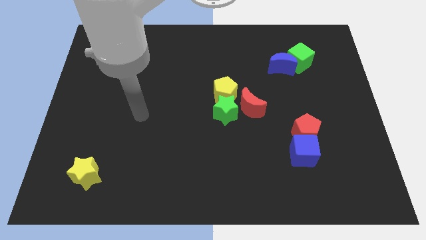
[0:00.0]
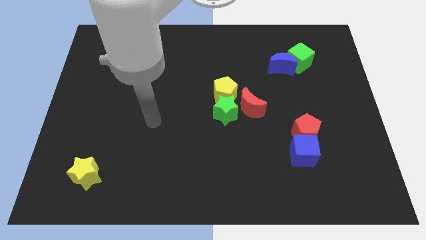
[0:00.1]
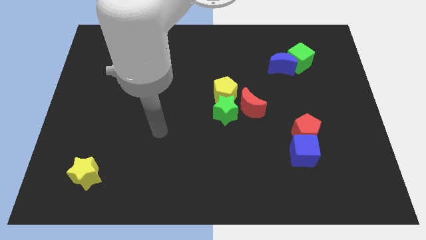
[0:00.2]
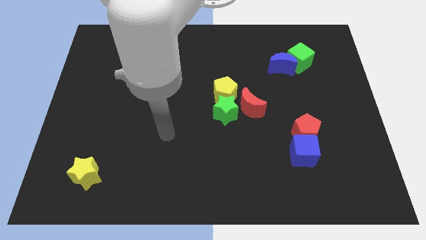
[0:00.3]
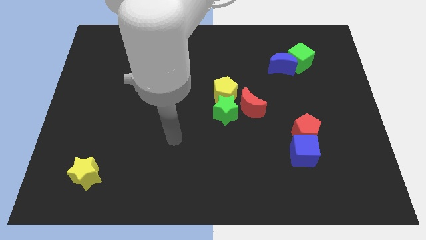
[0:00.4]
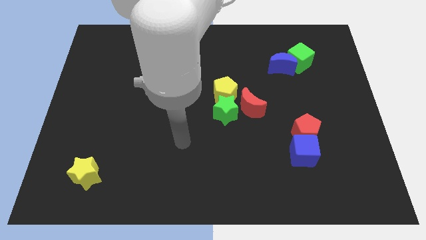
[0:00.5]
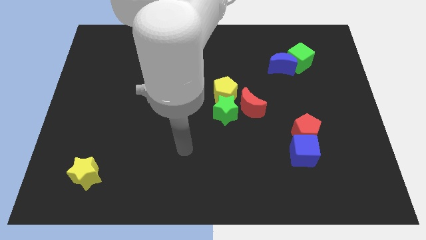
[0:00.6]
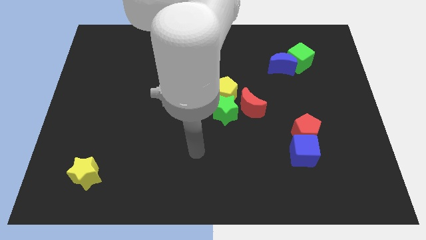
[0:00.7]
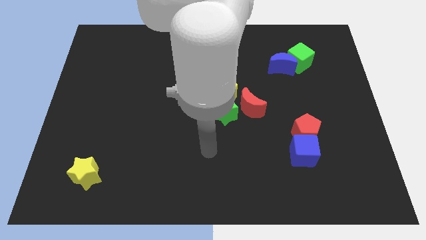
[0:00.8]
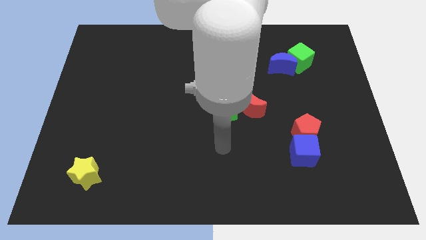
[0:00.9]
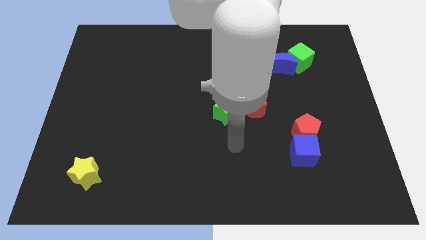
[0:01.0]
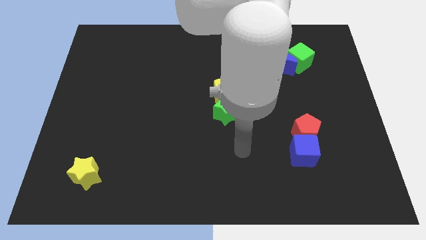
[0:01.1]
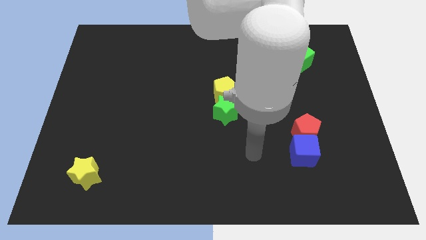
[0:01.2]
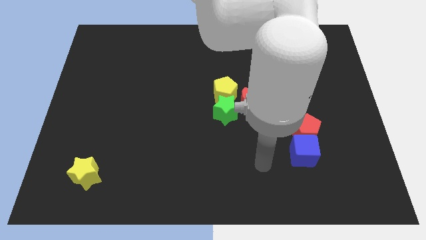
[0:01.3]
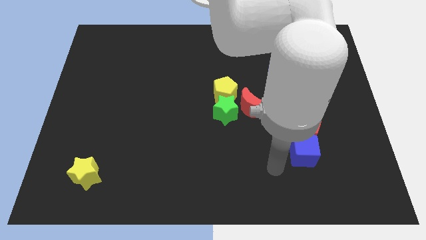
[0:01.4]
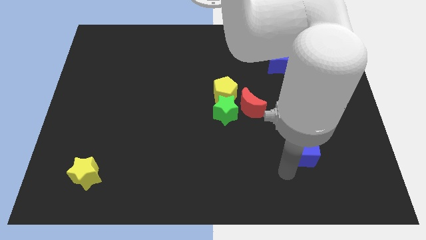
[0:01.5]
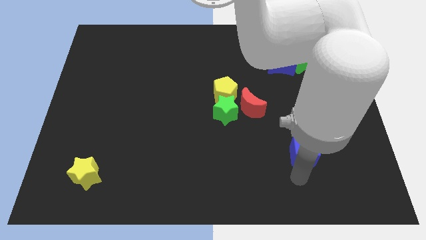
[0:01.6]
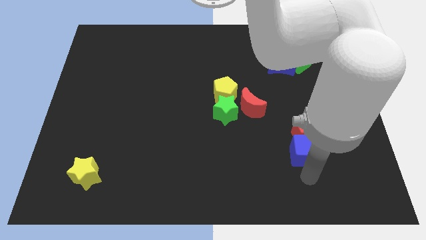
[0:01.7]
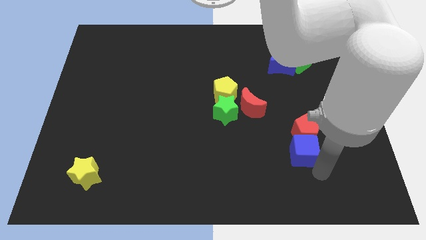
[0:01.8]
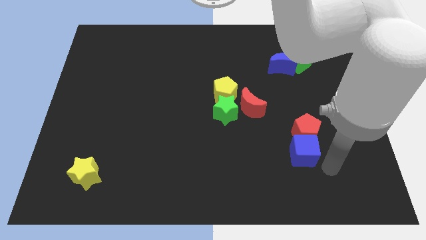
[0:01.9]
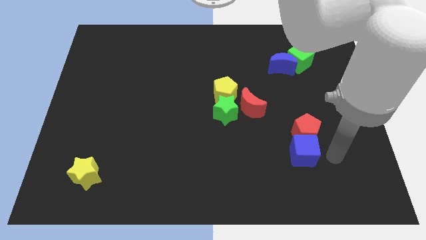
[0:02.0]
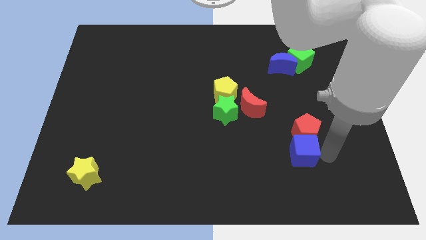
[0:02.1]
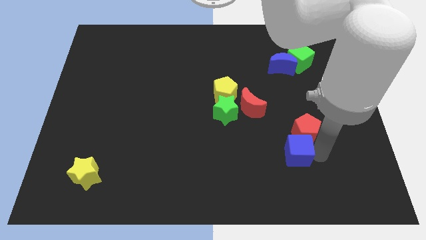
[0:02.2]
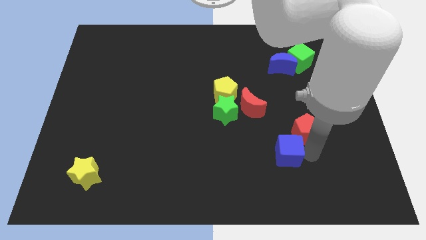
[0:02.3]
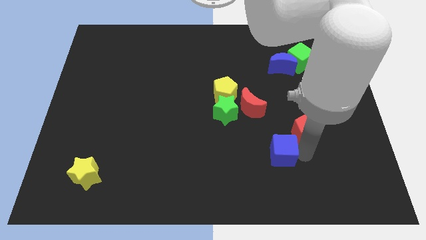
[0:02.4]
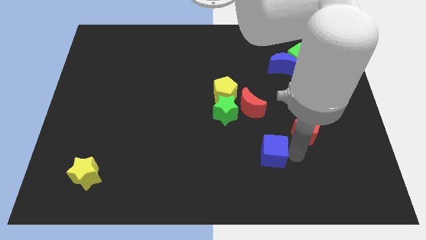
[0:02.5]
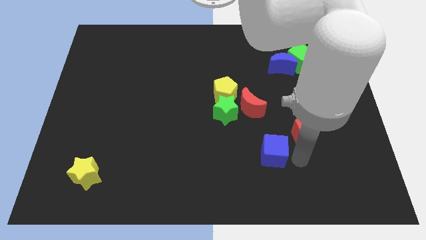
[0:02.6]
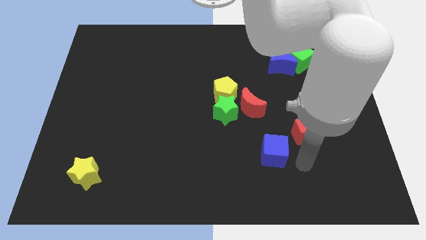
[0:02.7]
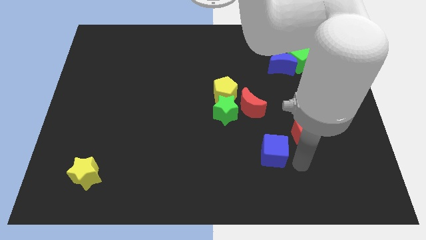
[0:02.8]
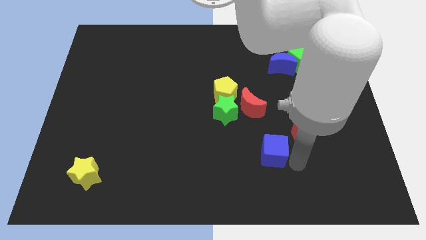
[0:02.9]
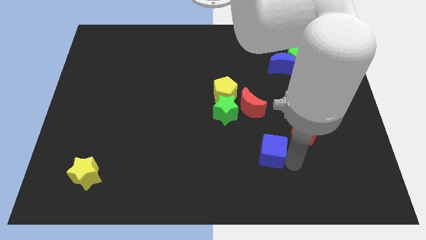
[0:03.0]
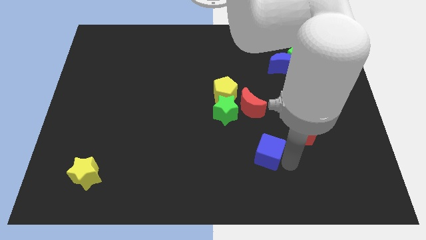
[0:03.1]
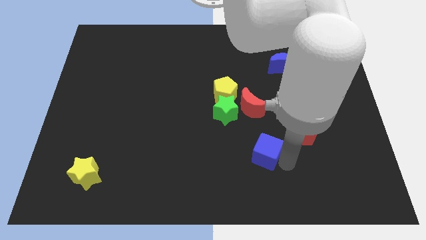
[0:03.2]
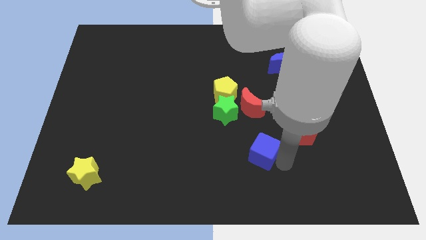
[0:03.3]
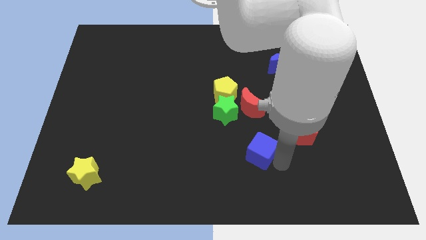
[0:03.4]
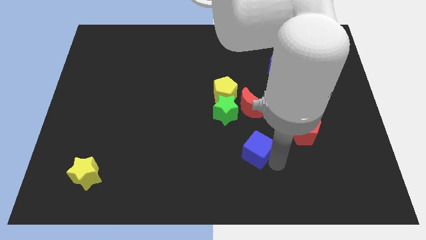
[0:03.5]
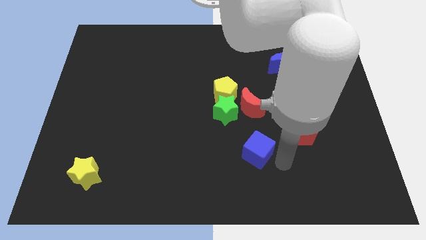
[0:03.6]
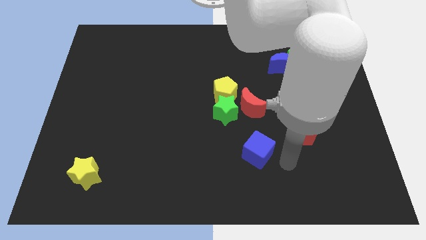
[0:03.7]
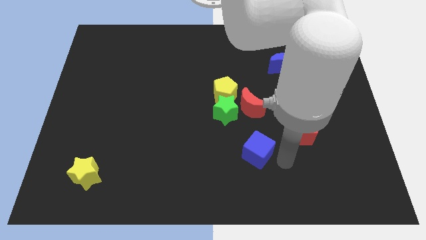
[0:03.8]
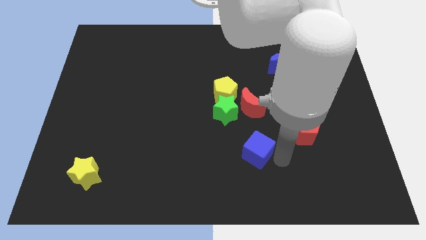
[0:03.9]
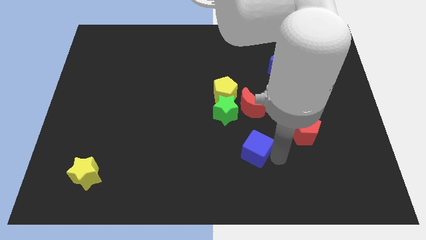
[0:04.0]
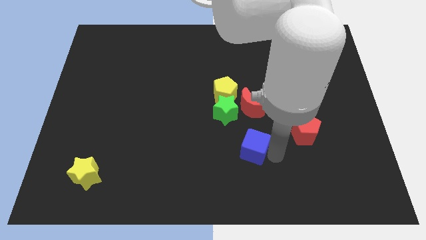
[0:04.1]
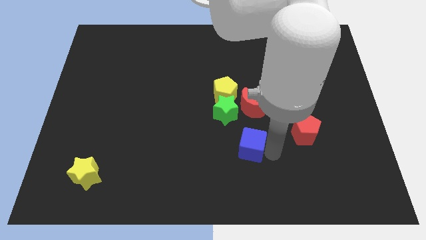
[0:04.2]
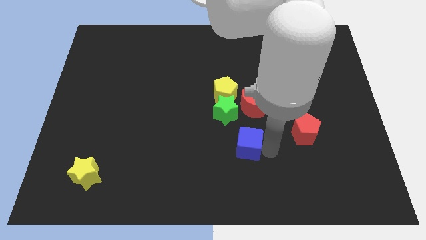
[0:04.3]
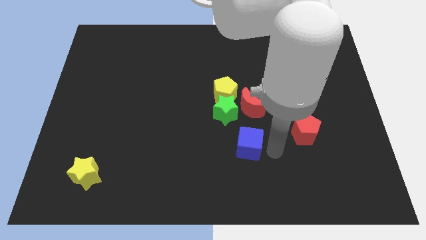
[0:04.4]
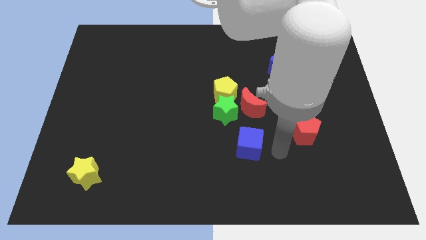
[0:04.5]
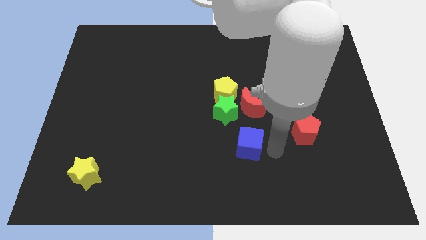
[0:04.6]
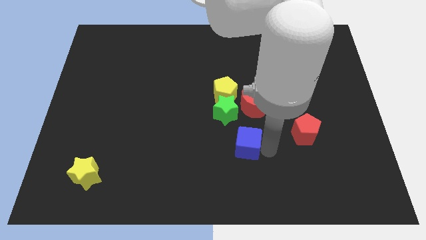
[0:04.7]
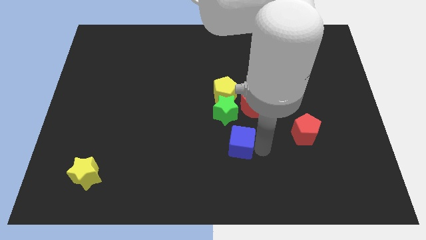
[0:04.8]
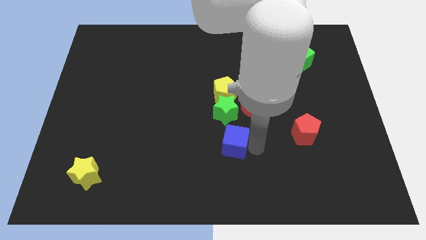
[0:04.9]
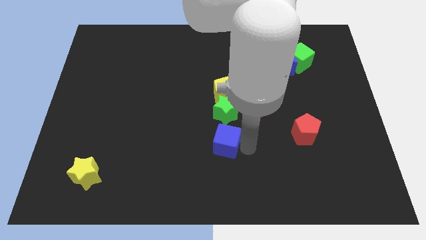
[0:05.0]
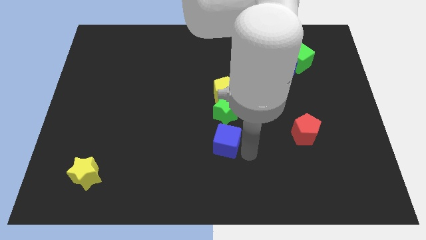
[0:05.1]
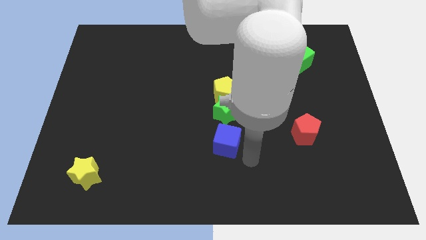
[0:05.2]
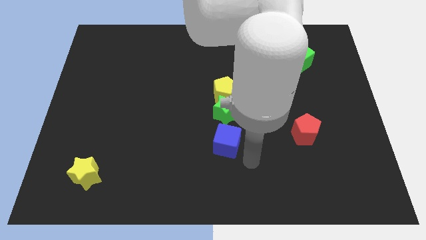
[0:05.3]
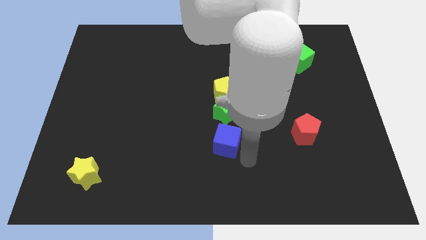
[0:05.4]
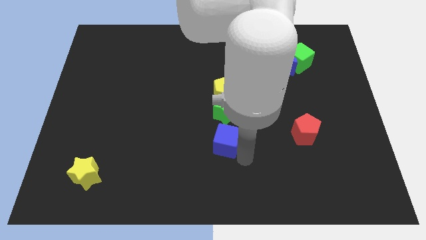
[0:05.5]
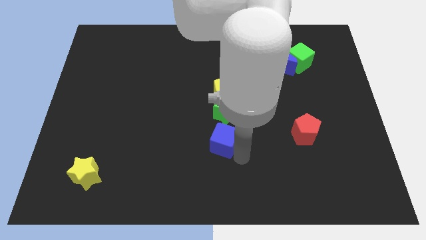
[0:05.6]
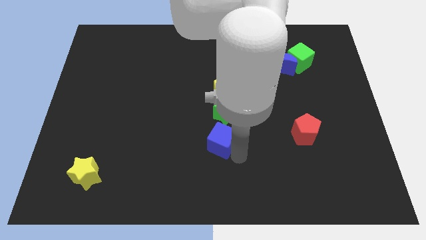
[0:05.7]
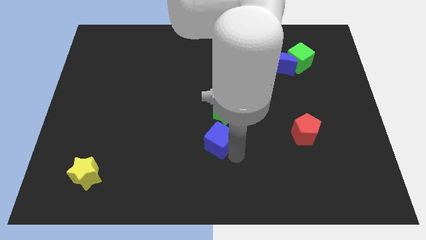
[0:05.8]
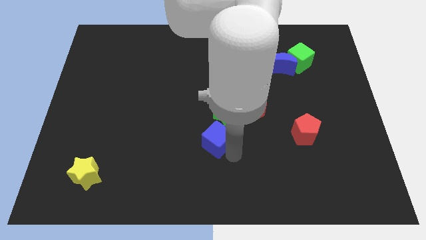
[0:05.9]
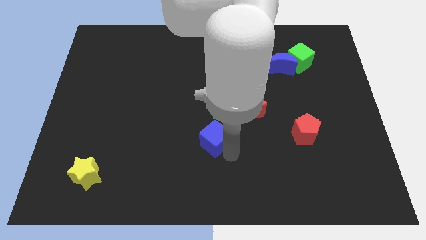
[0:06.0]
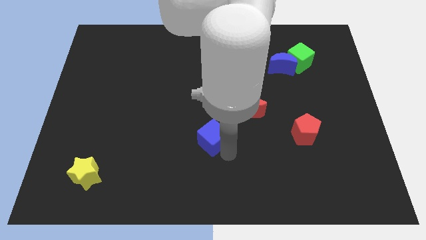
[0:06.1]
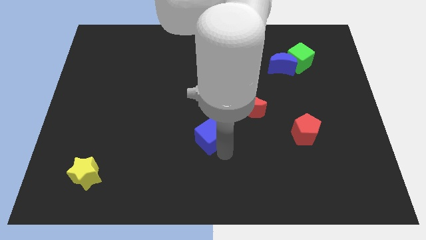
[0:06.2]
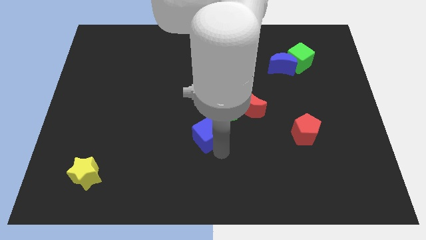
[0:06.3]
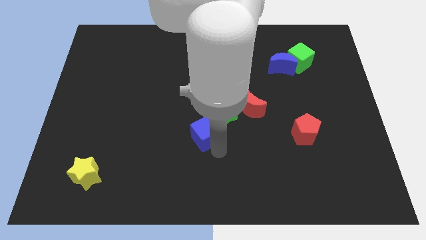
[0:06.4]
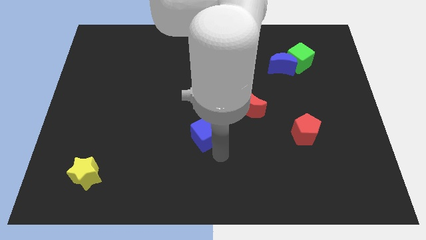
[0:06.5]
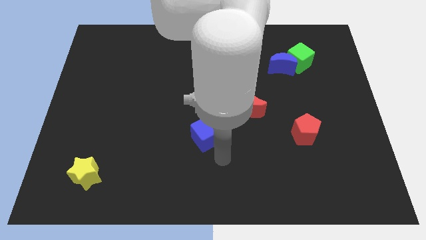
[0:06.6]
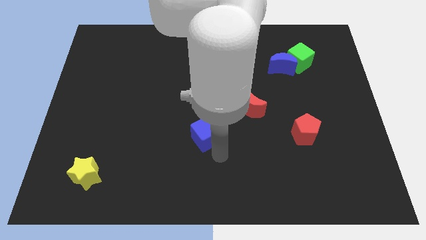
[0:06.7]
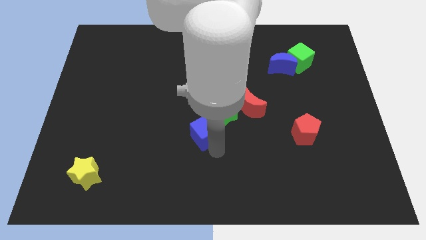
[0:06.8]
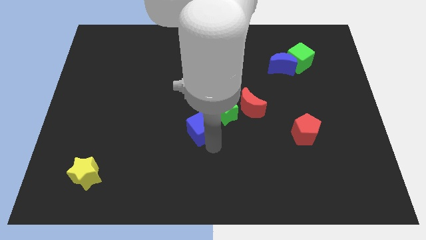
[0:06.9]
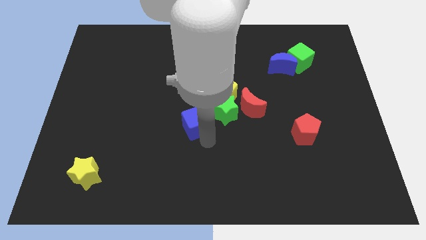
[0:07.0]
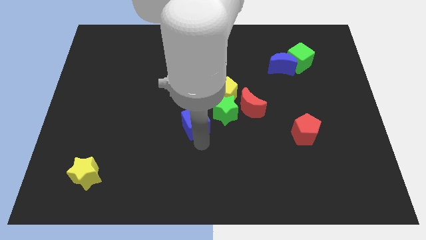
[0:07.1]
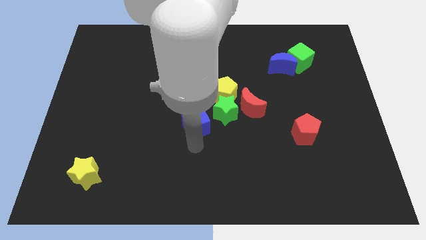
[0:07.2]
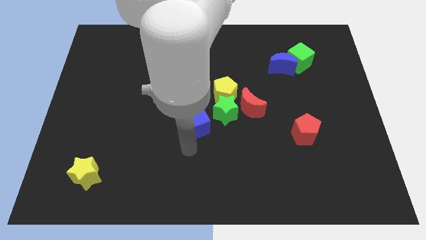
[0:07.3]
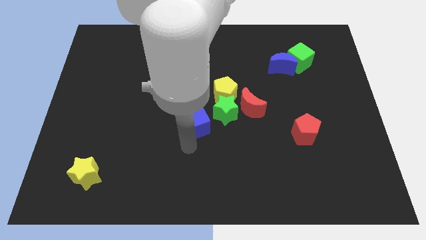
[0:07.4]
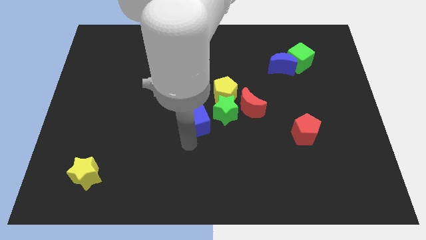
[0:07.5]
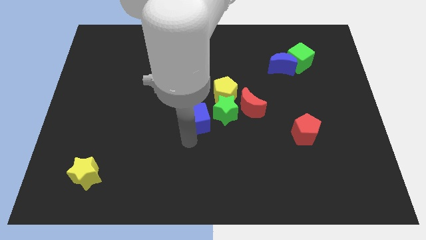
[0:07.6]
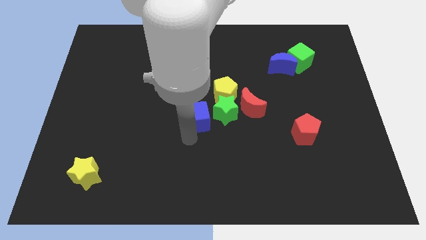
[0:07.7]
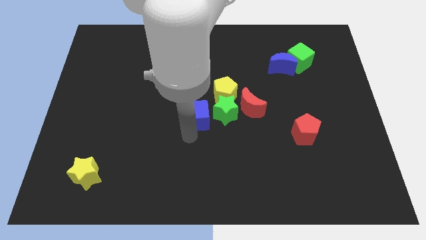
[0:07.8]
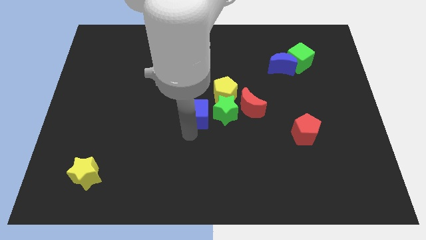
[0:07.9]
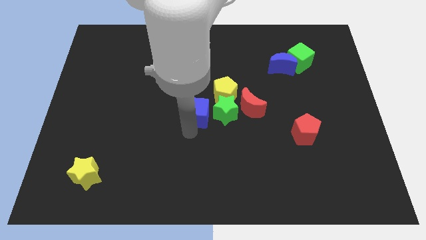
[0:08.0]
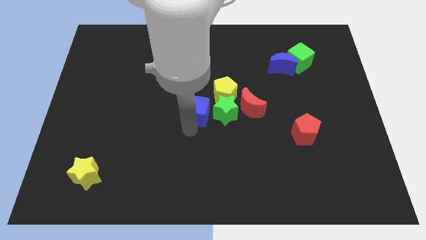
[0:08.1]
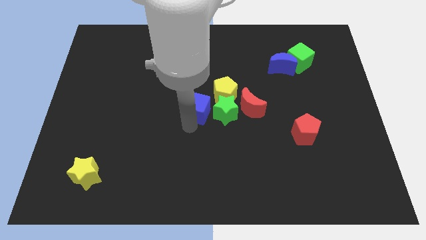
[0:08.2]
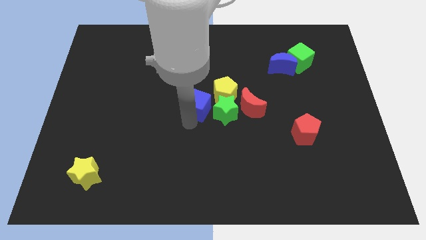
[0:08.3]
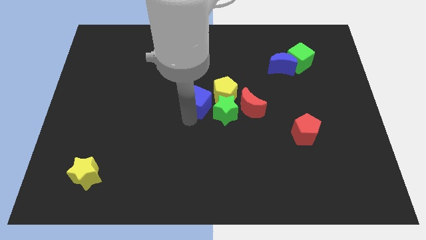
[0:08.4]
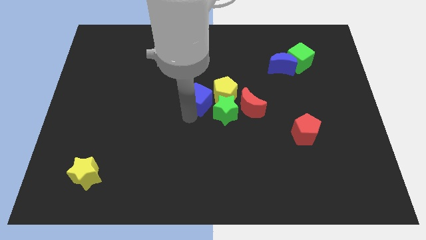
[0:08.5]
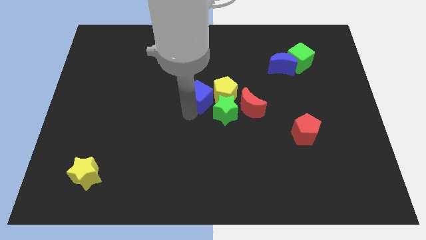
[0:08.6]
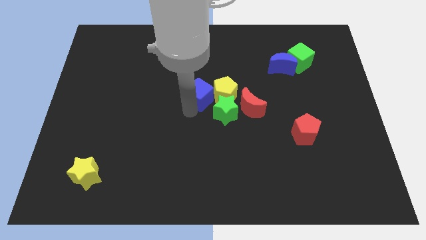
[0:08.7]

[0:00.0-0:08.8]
slide the blue cube to the yellow pentagon
